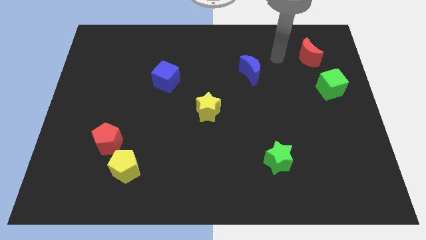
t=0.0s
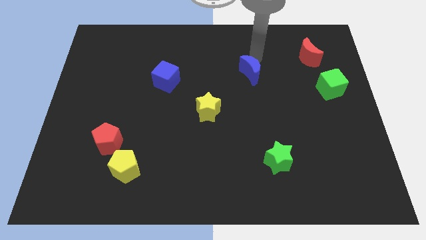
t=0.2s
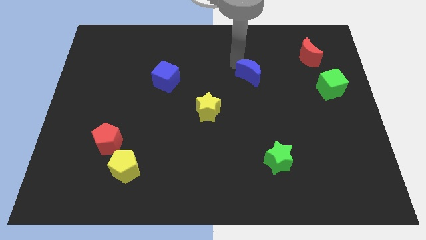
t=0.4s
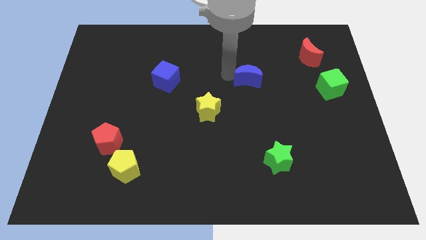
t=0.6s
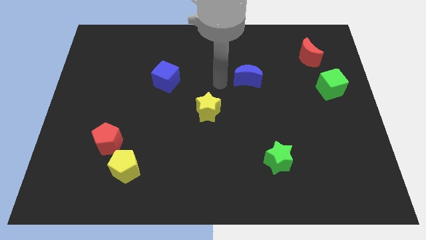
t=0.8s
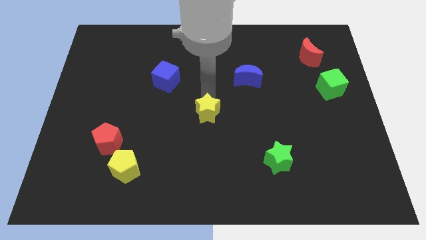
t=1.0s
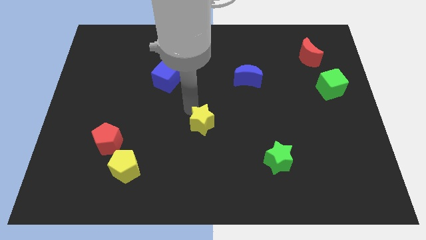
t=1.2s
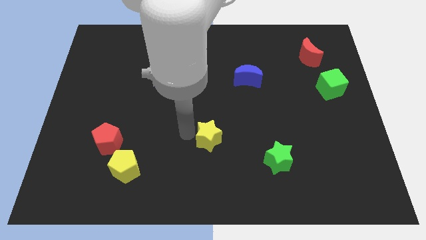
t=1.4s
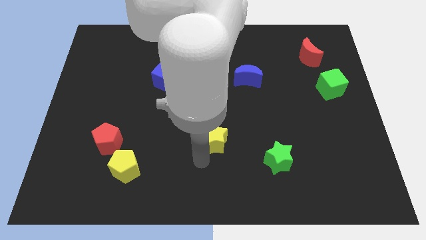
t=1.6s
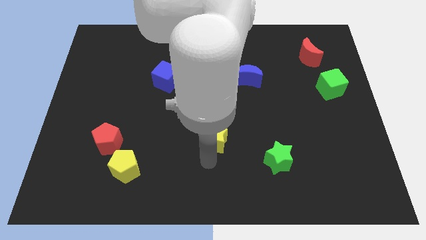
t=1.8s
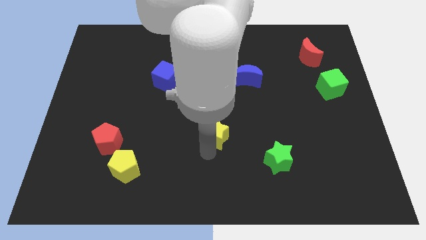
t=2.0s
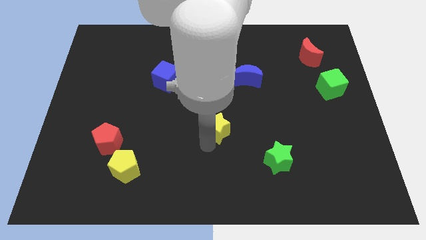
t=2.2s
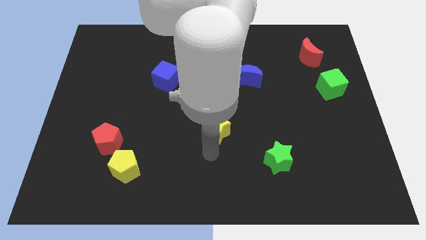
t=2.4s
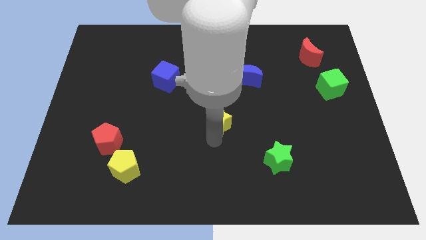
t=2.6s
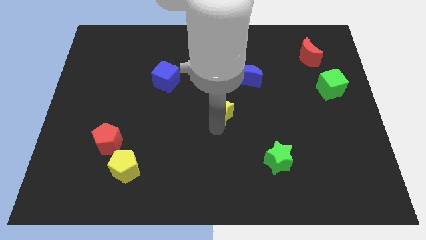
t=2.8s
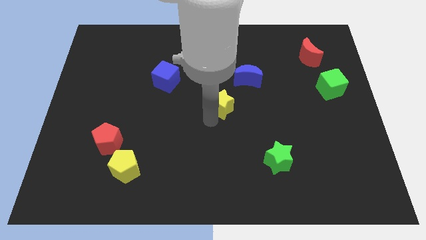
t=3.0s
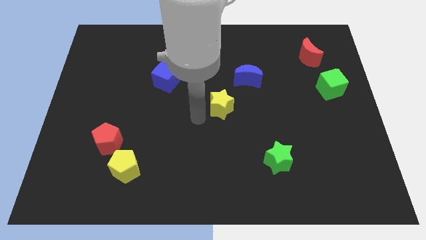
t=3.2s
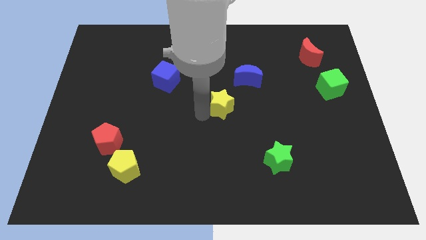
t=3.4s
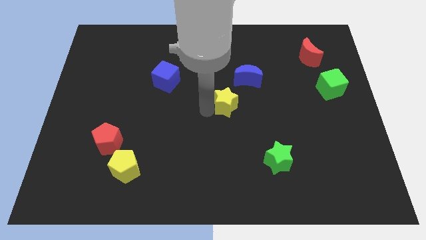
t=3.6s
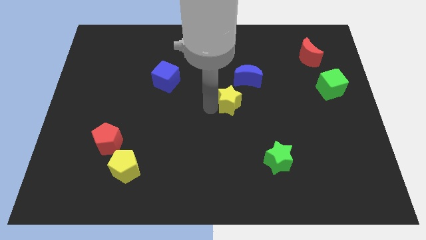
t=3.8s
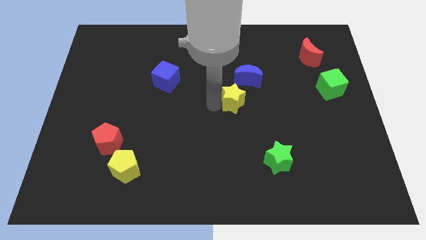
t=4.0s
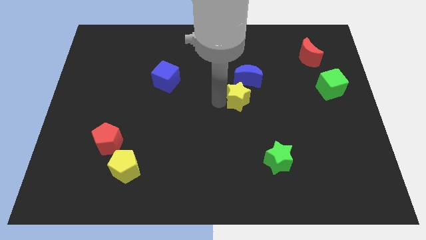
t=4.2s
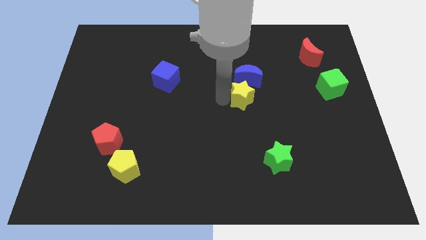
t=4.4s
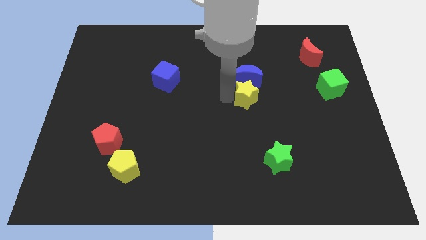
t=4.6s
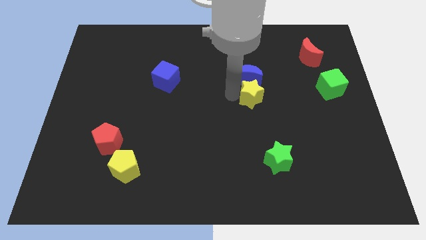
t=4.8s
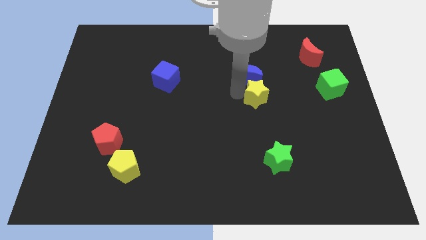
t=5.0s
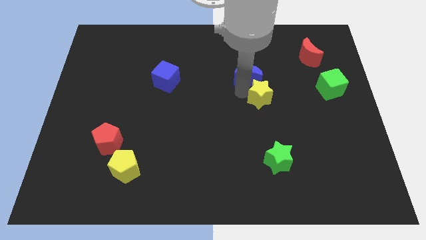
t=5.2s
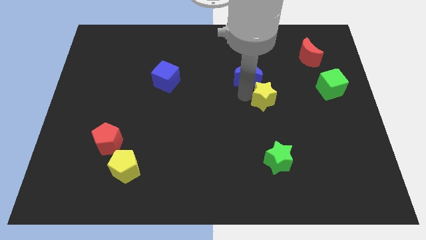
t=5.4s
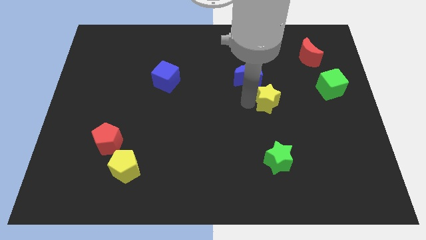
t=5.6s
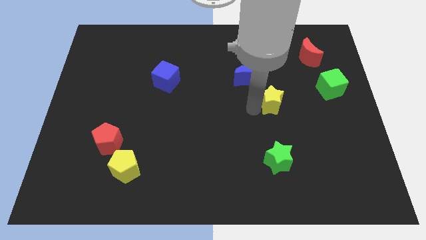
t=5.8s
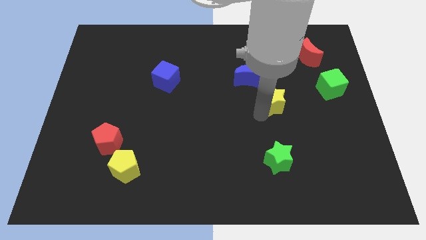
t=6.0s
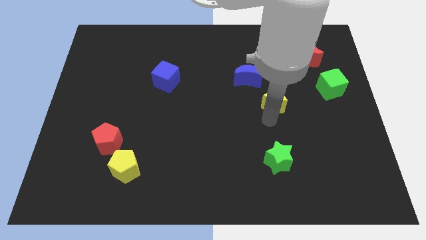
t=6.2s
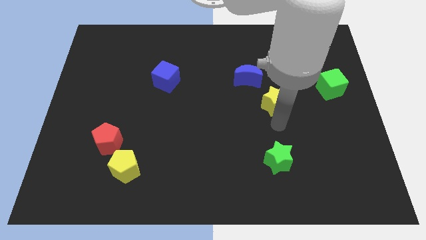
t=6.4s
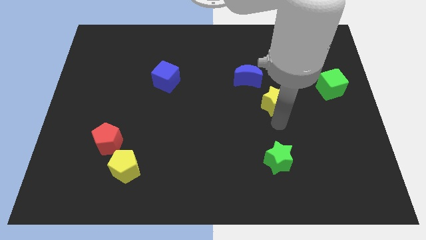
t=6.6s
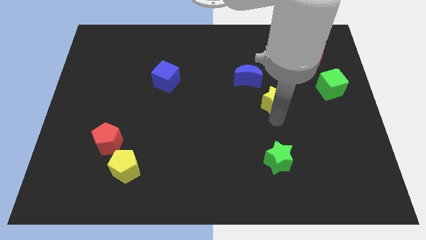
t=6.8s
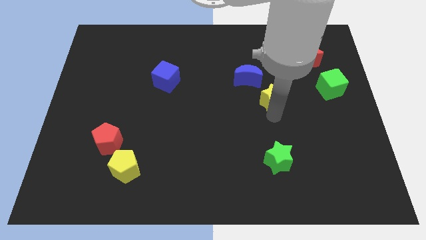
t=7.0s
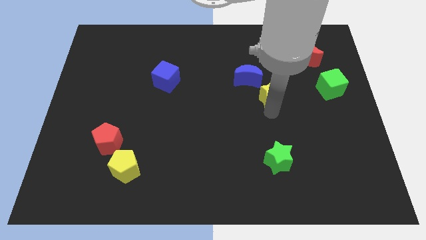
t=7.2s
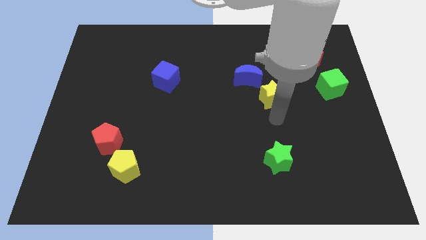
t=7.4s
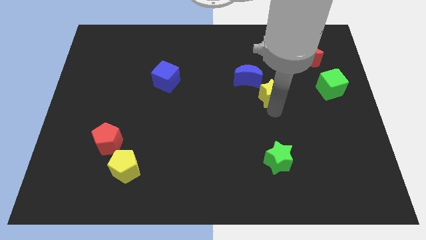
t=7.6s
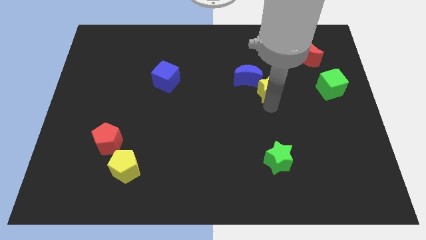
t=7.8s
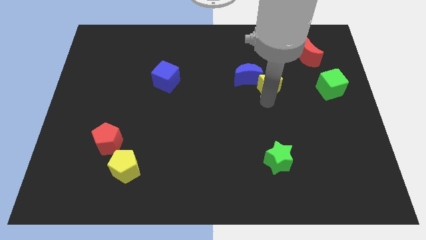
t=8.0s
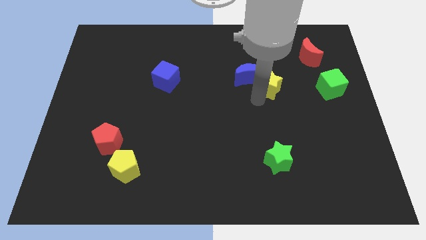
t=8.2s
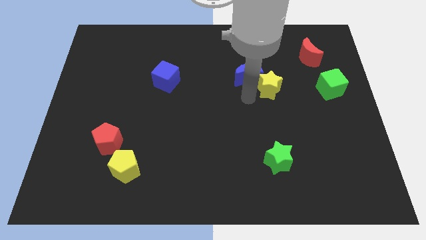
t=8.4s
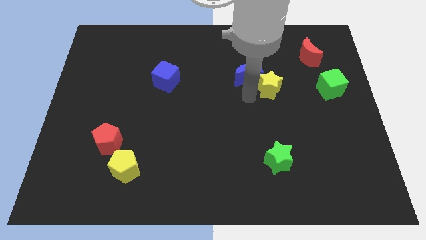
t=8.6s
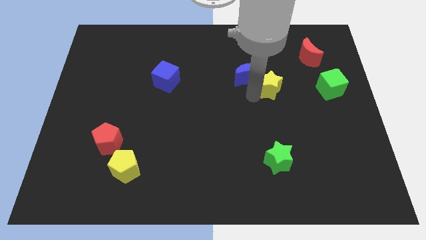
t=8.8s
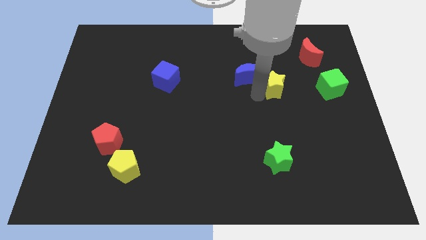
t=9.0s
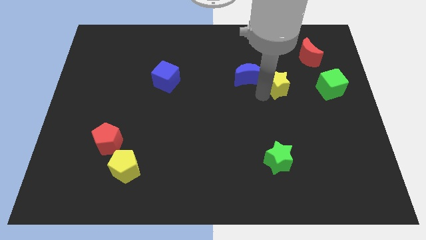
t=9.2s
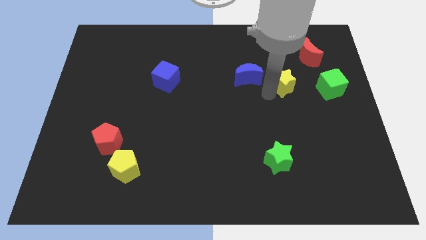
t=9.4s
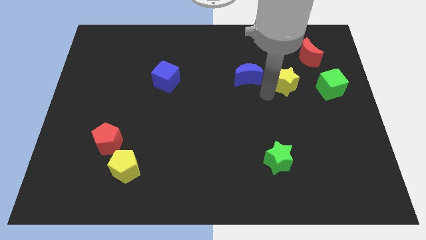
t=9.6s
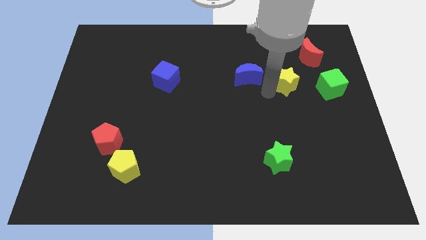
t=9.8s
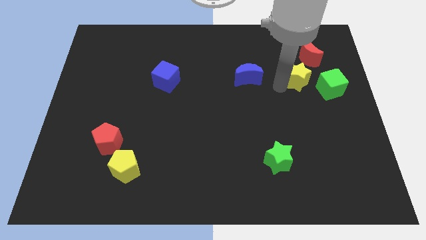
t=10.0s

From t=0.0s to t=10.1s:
slide the yellow star to the top left side of the green cube

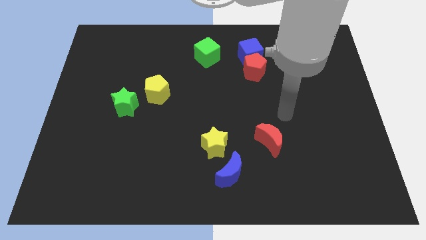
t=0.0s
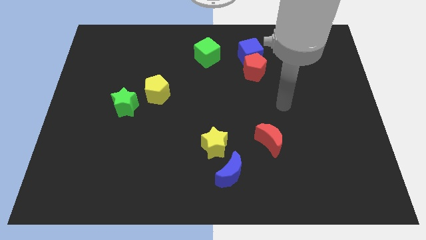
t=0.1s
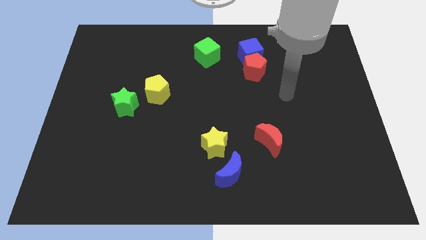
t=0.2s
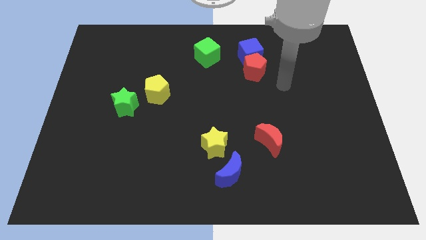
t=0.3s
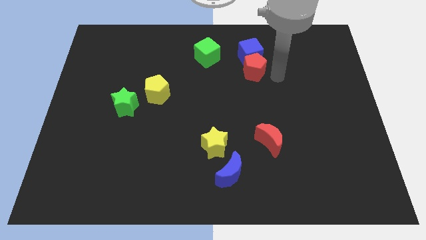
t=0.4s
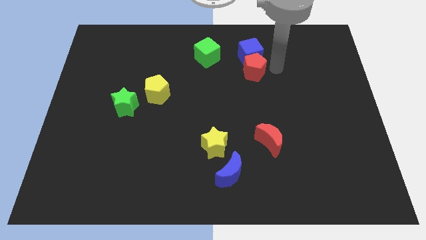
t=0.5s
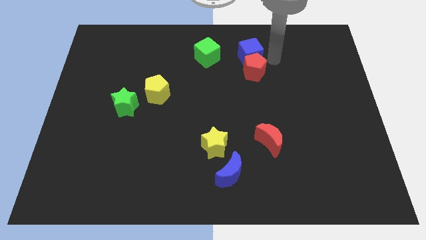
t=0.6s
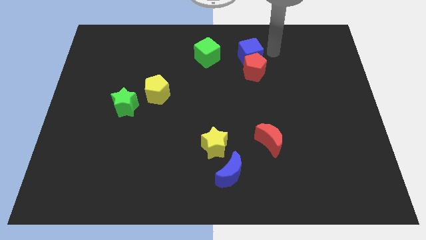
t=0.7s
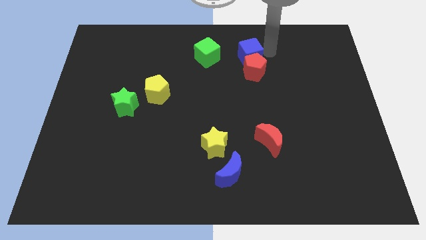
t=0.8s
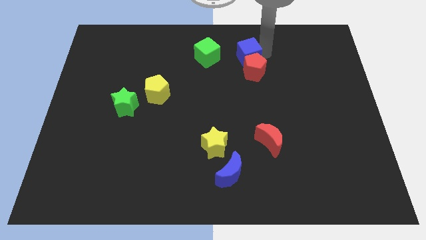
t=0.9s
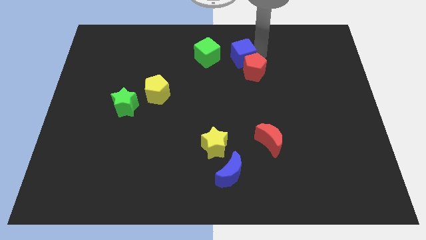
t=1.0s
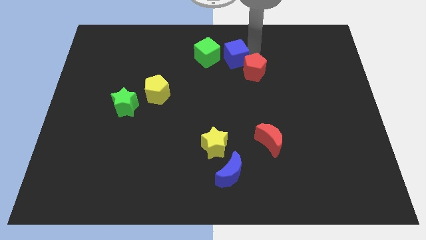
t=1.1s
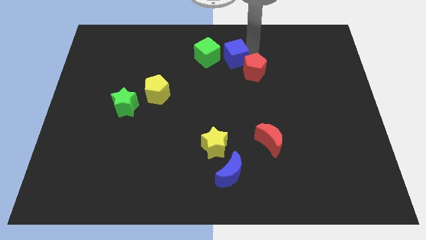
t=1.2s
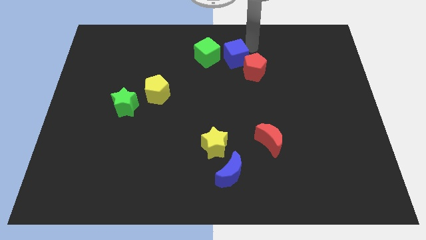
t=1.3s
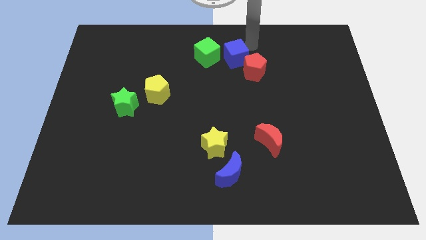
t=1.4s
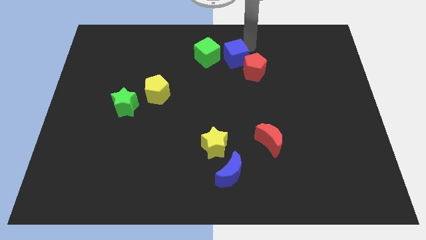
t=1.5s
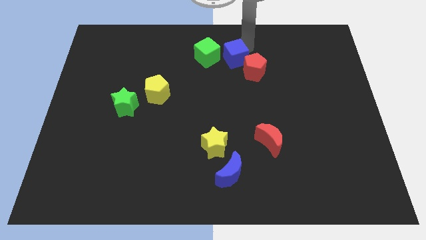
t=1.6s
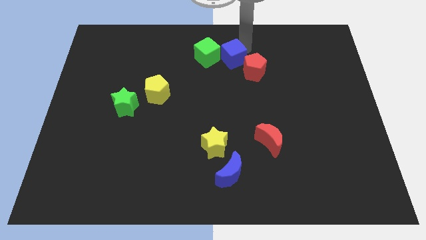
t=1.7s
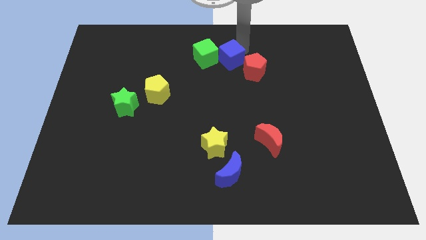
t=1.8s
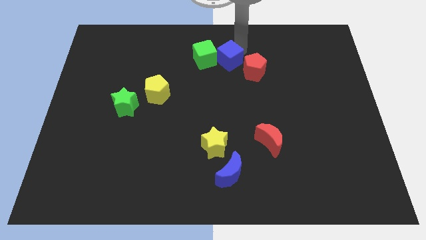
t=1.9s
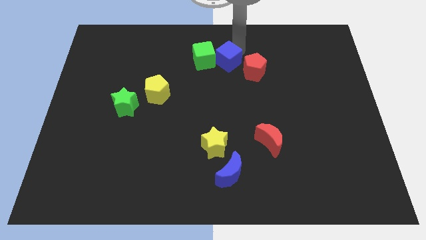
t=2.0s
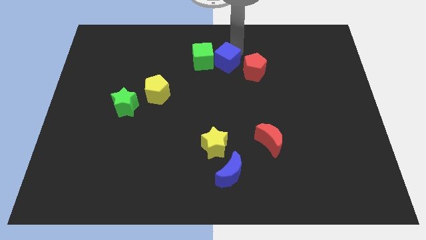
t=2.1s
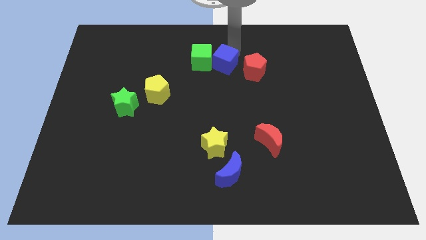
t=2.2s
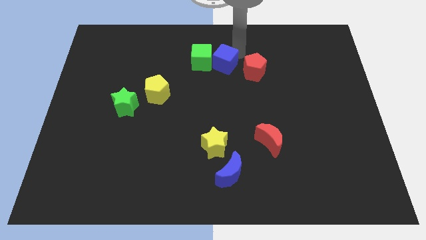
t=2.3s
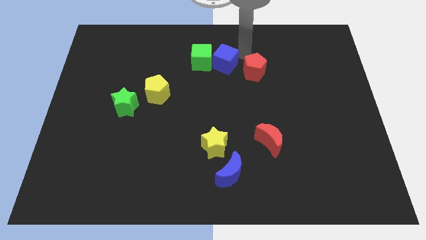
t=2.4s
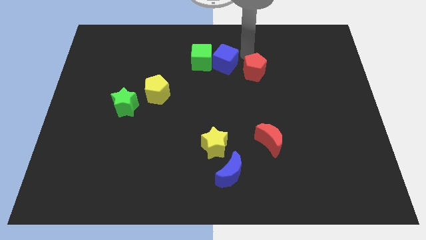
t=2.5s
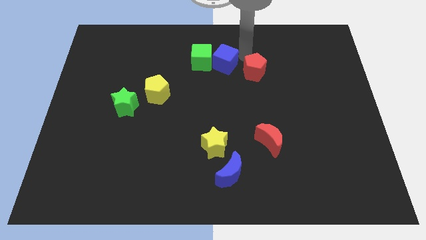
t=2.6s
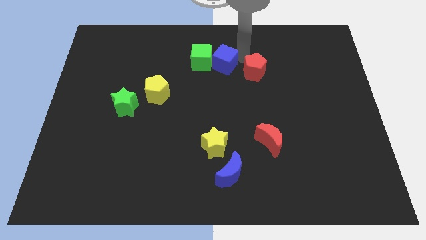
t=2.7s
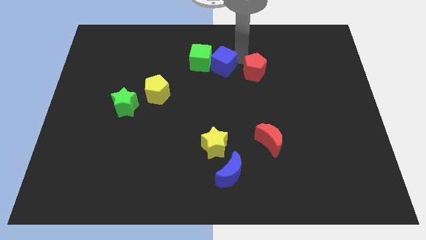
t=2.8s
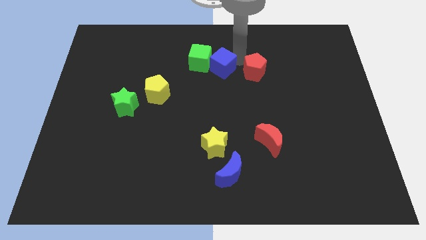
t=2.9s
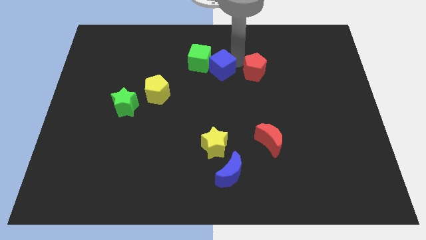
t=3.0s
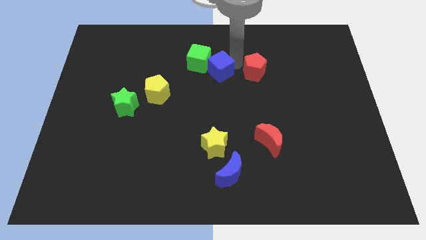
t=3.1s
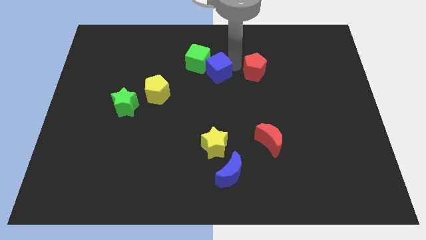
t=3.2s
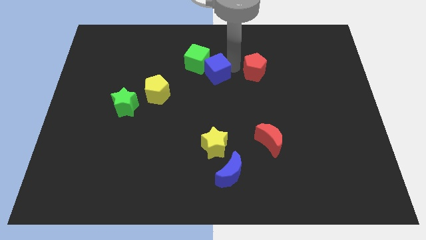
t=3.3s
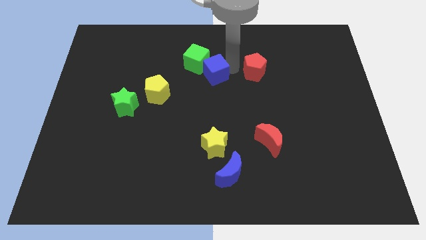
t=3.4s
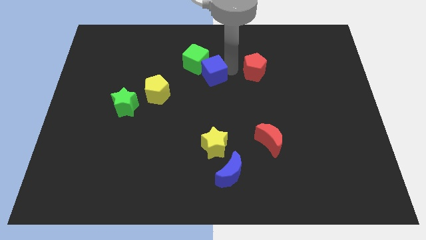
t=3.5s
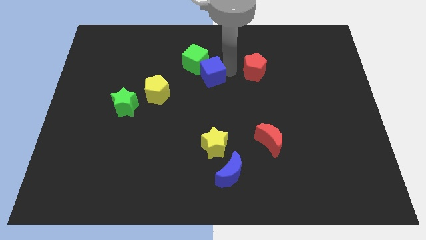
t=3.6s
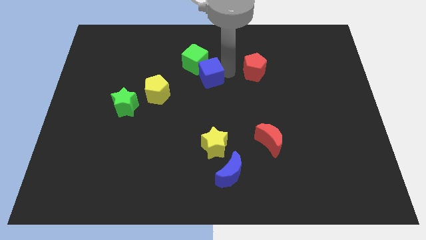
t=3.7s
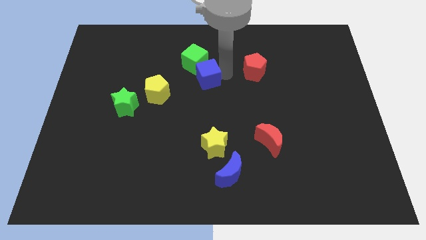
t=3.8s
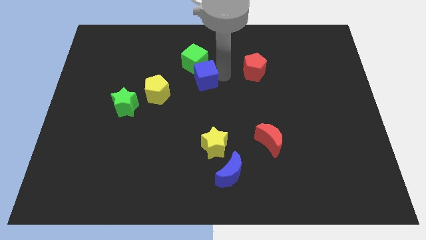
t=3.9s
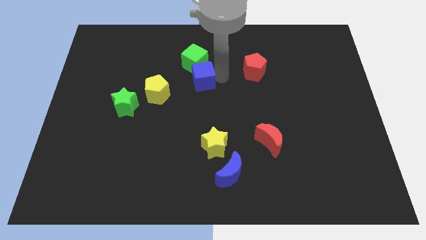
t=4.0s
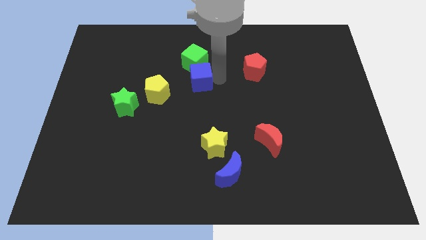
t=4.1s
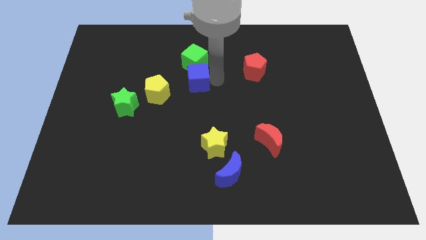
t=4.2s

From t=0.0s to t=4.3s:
move the blue cube to the top right side of the yellow pentagon
